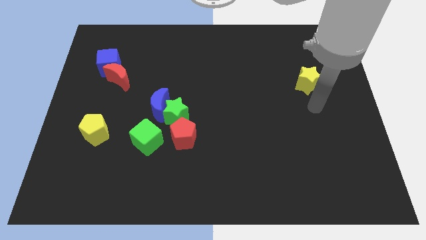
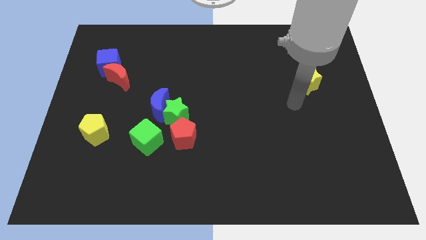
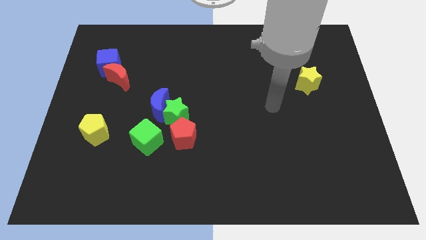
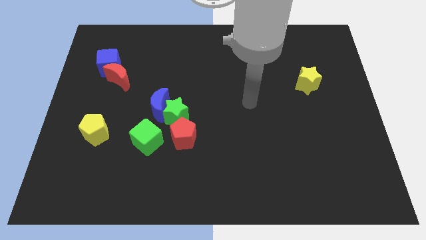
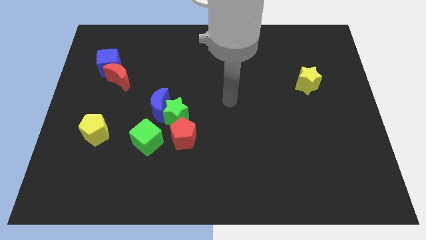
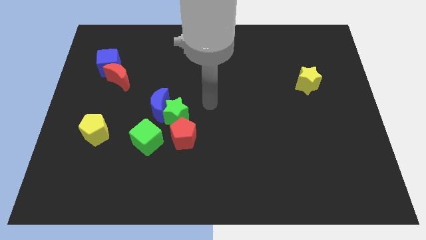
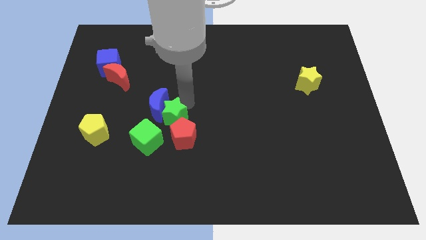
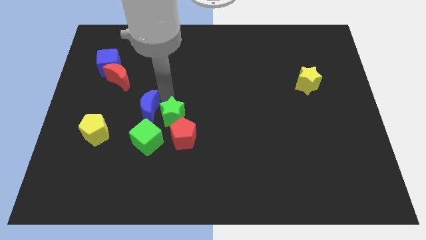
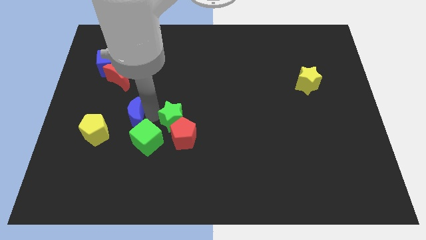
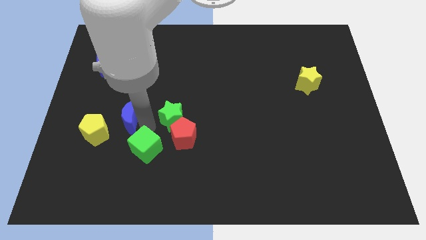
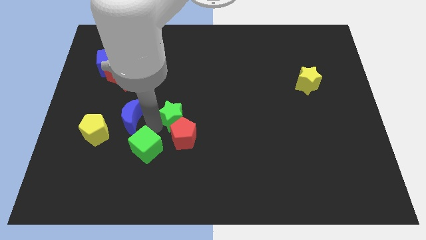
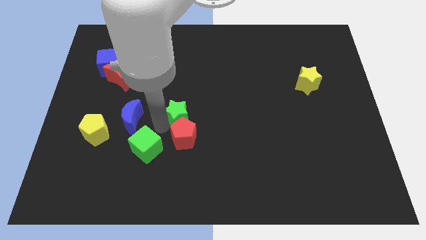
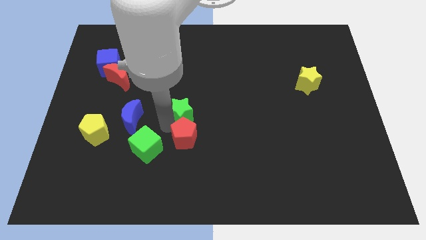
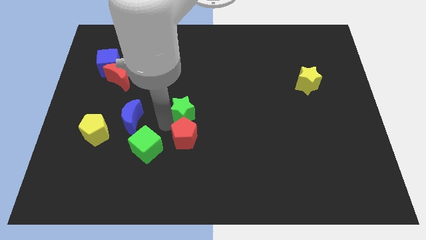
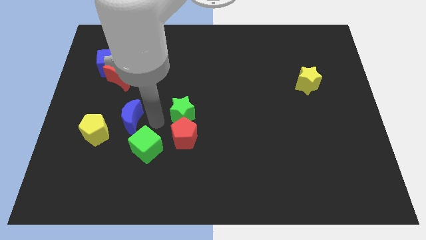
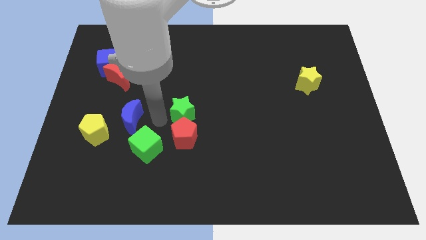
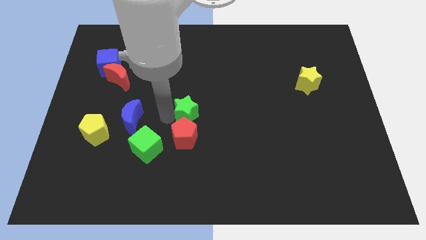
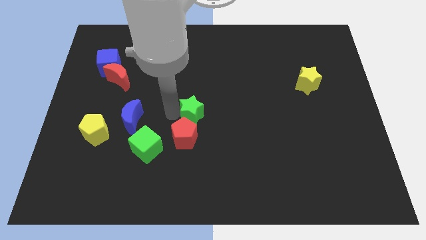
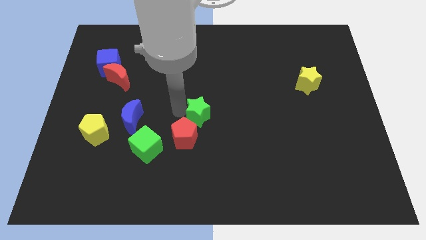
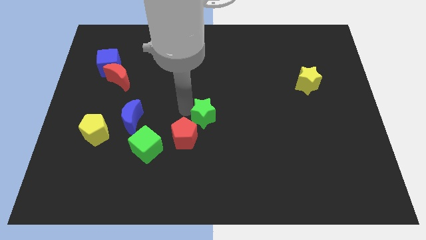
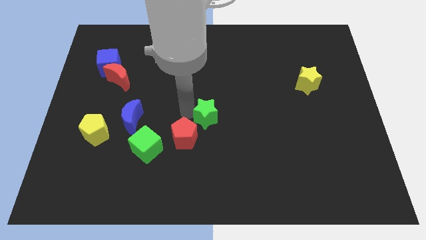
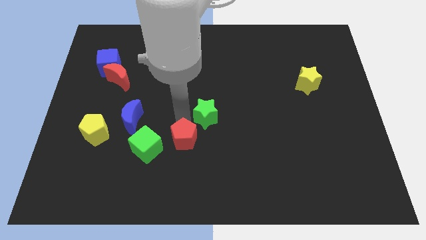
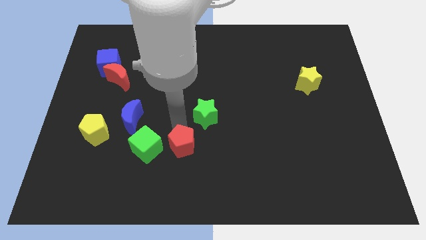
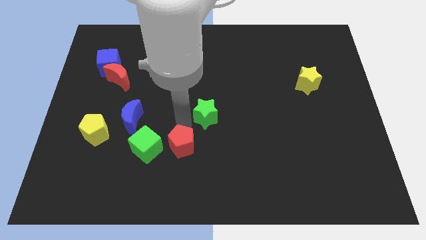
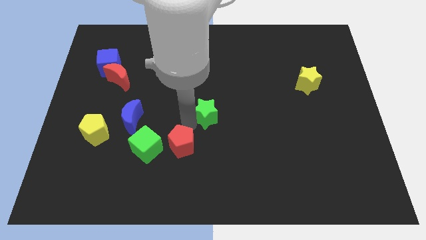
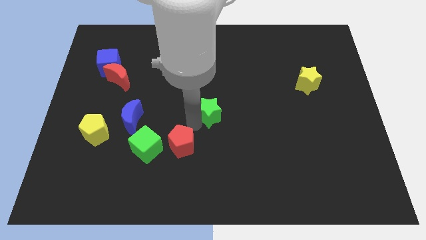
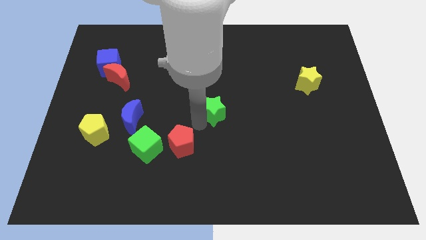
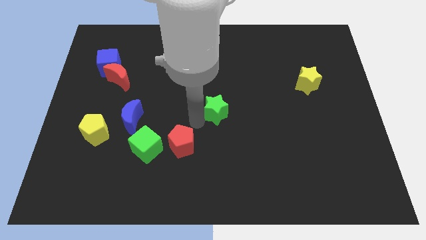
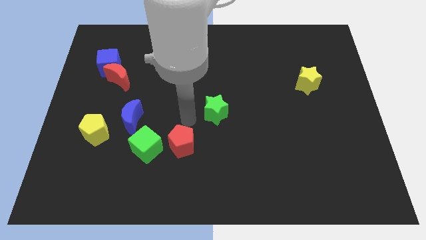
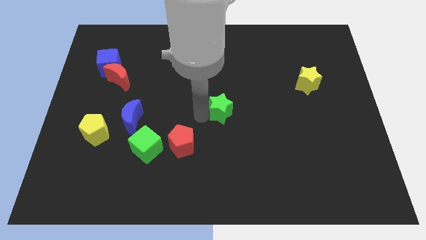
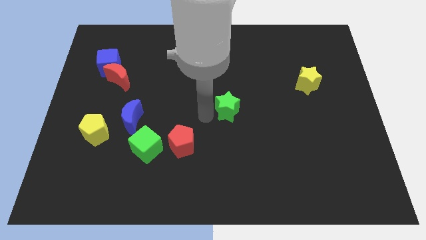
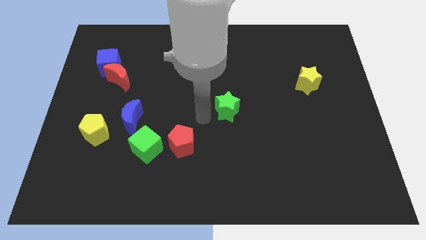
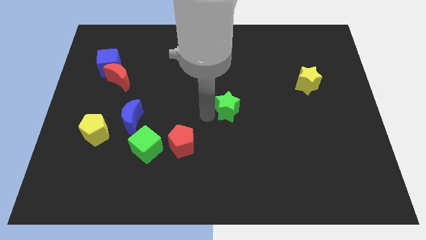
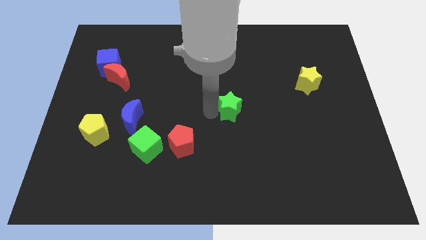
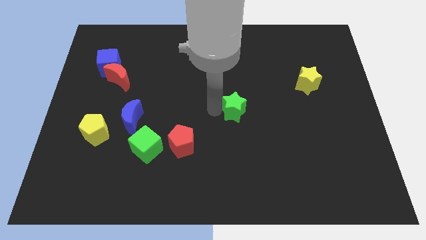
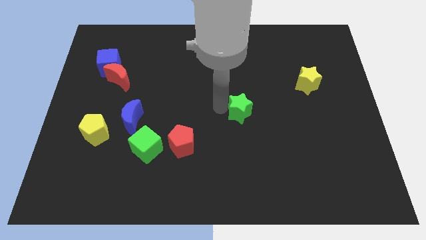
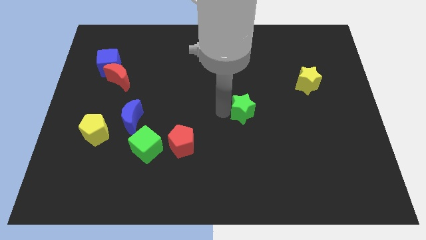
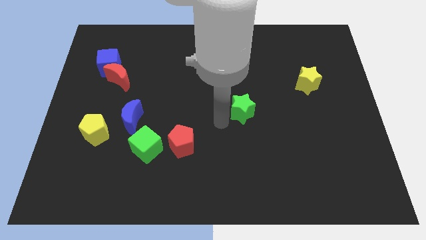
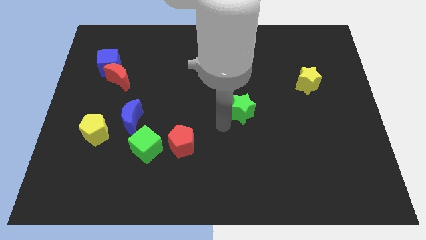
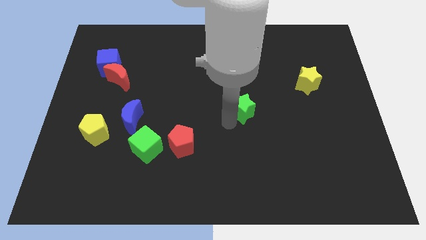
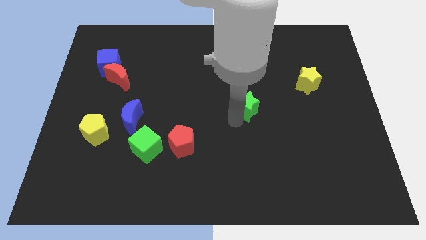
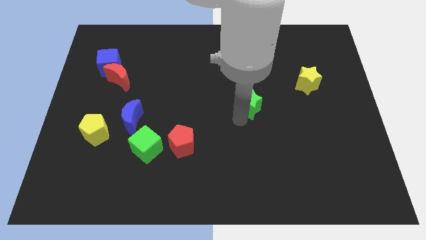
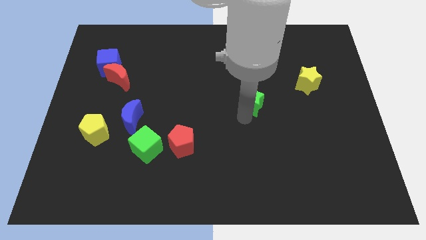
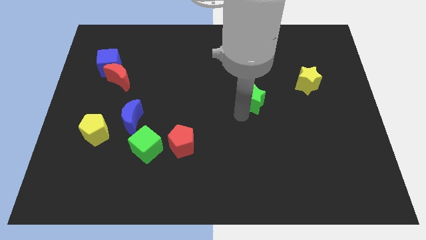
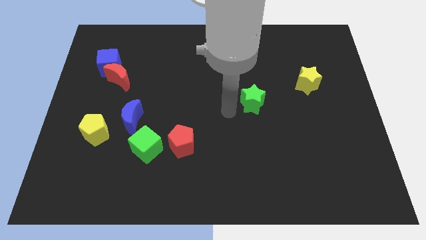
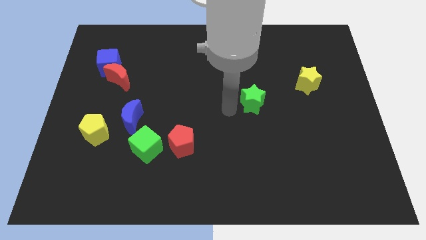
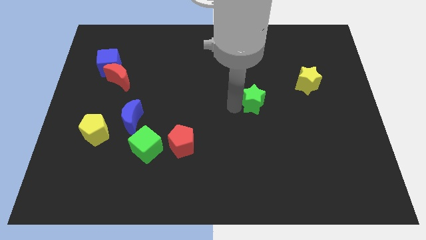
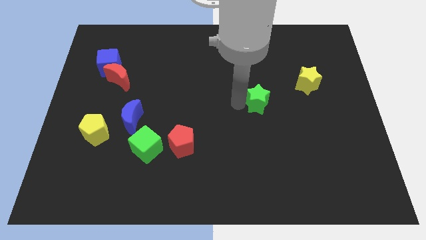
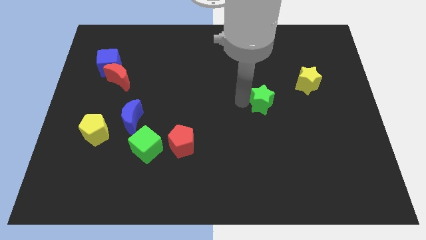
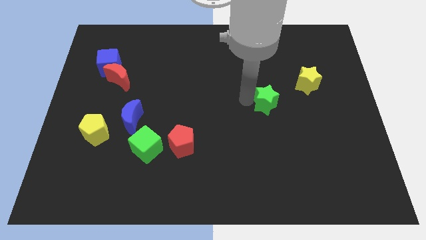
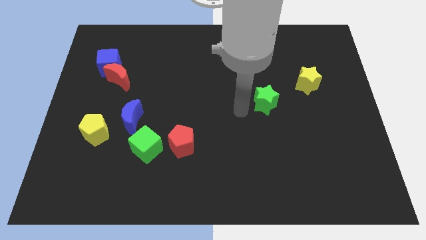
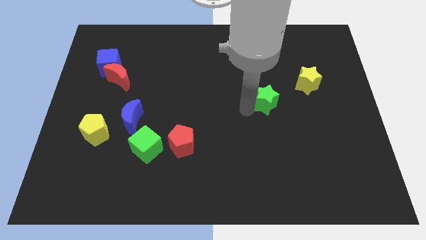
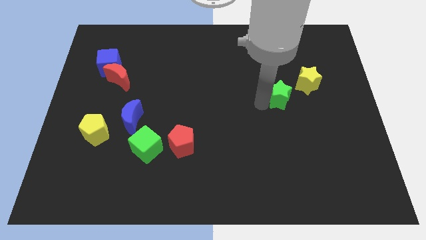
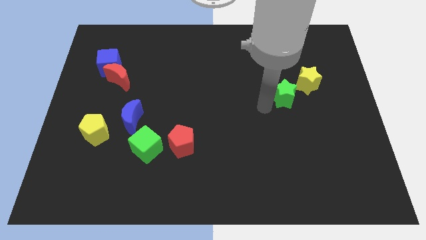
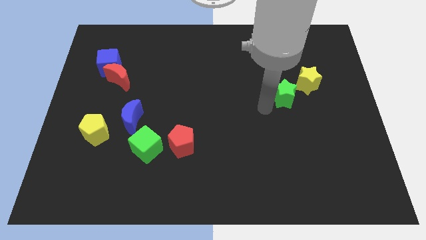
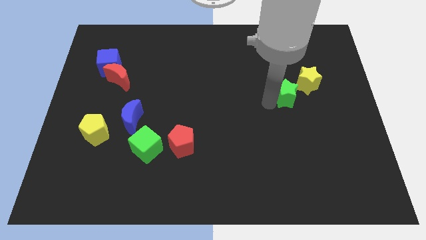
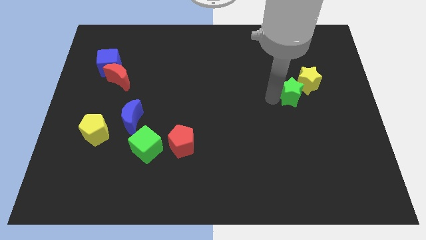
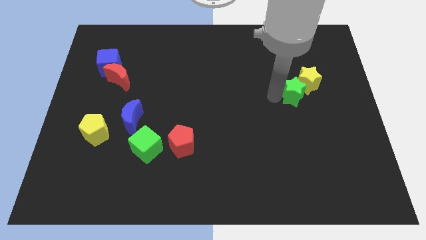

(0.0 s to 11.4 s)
push the green star close to the yellow star
